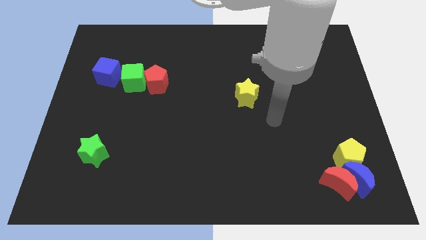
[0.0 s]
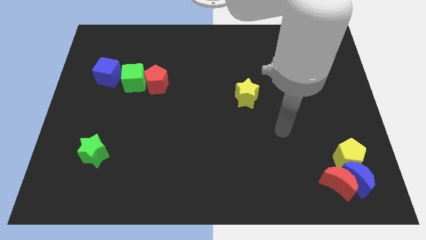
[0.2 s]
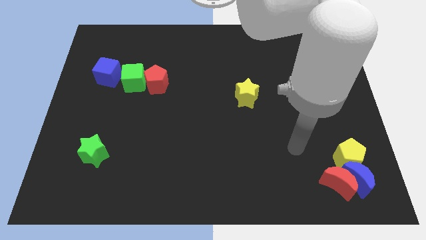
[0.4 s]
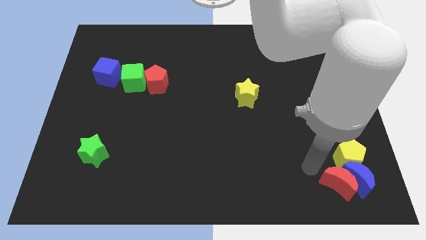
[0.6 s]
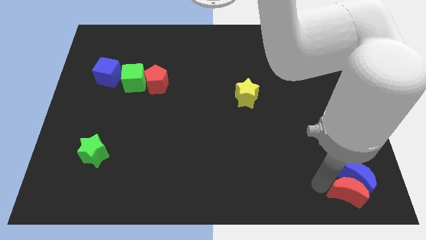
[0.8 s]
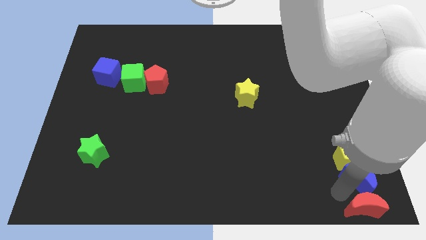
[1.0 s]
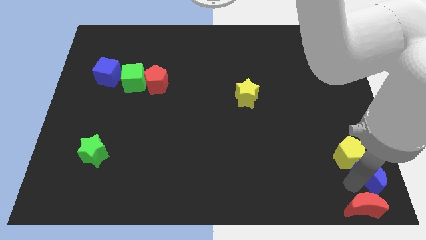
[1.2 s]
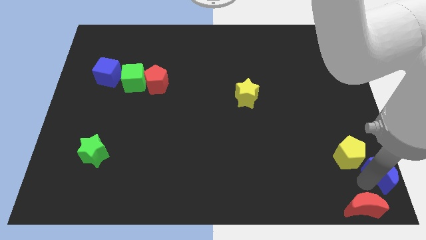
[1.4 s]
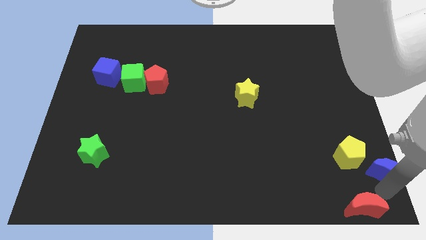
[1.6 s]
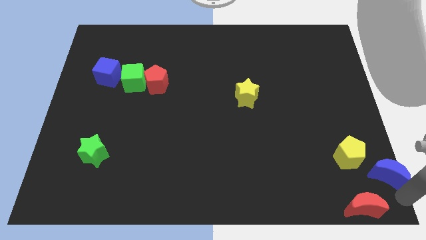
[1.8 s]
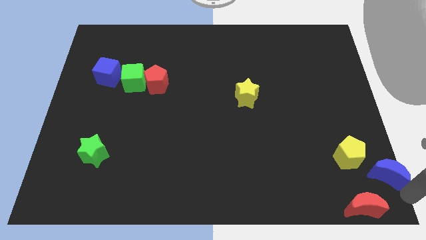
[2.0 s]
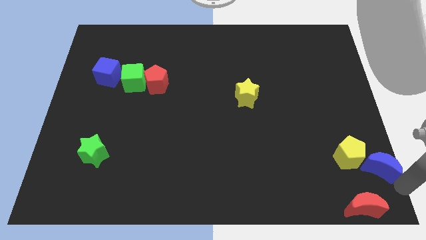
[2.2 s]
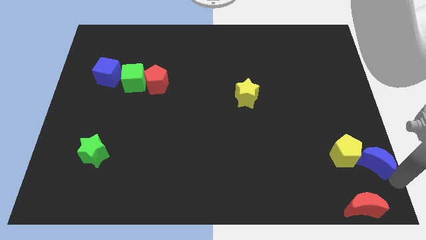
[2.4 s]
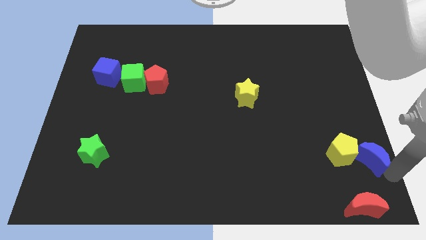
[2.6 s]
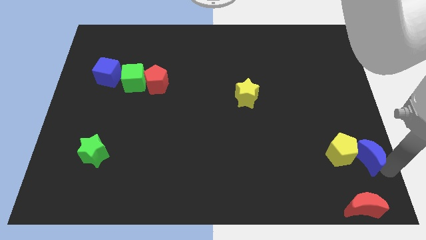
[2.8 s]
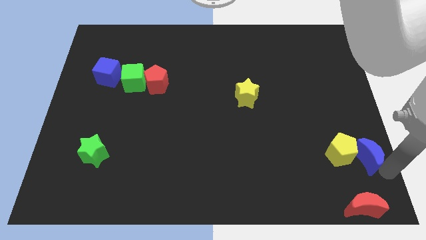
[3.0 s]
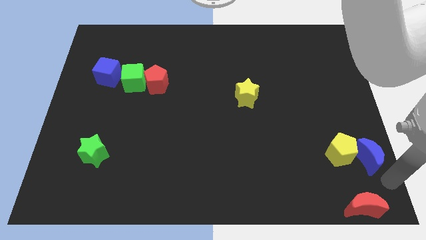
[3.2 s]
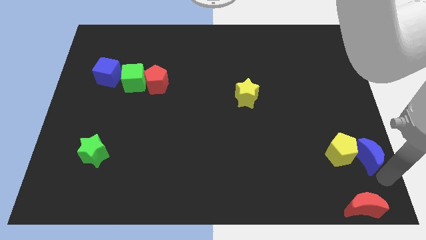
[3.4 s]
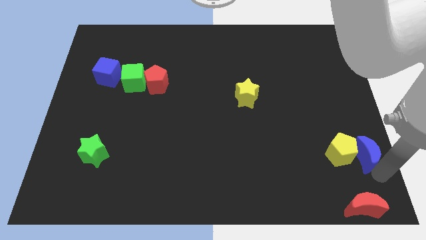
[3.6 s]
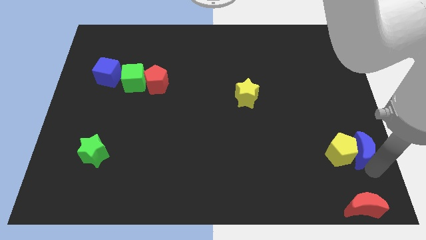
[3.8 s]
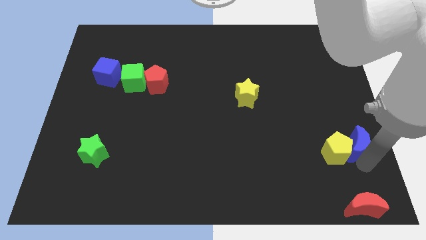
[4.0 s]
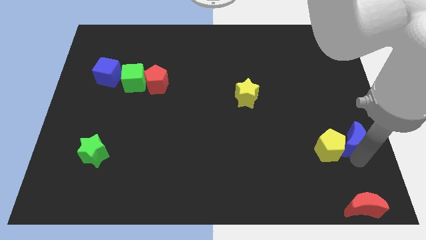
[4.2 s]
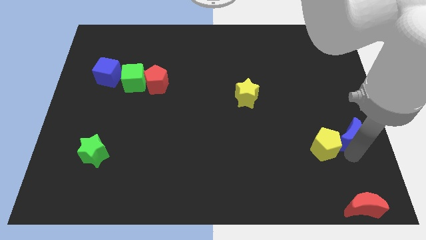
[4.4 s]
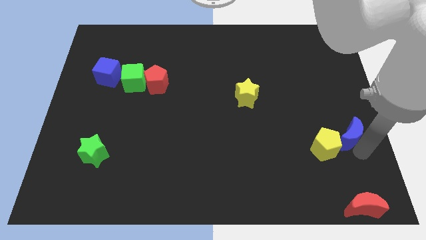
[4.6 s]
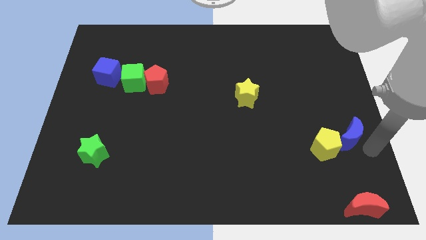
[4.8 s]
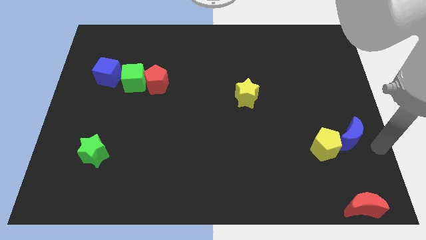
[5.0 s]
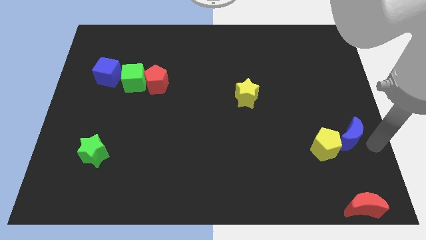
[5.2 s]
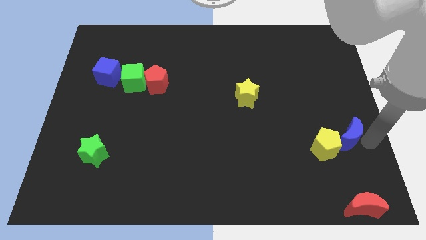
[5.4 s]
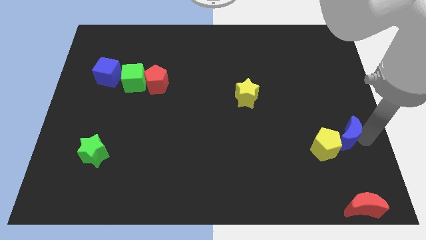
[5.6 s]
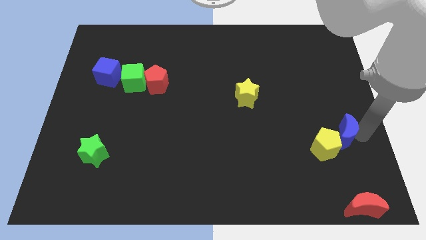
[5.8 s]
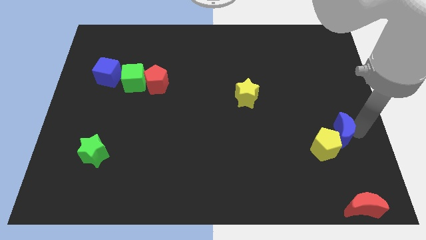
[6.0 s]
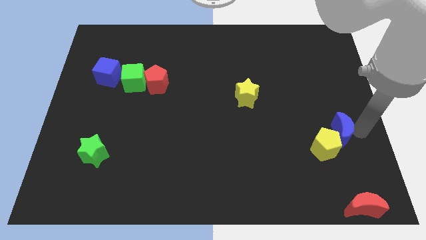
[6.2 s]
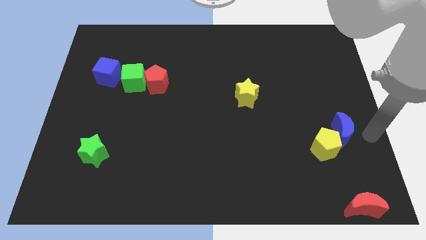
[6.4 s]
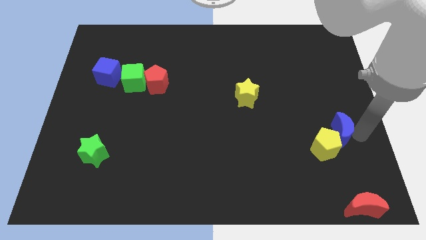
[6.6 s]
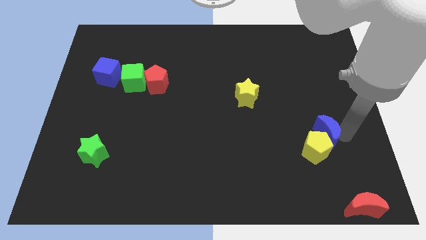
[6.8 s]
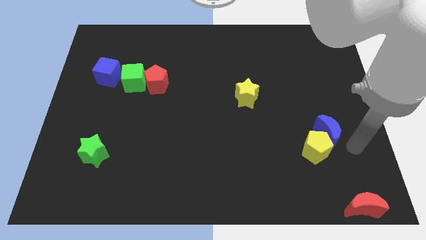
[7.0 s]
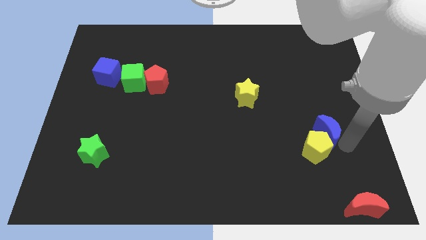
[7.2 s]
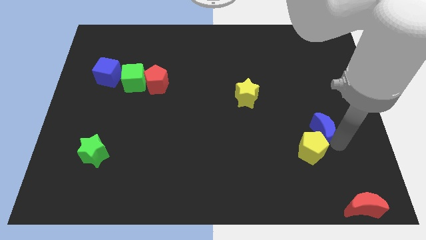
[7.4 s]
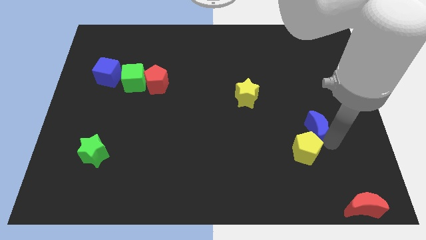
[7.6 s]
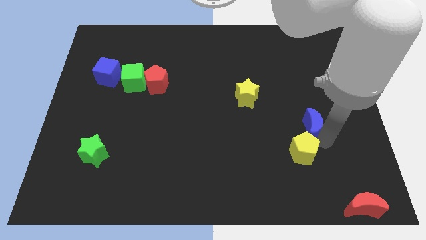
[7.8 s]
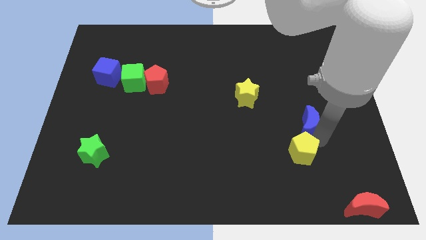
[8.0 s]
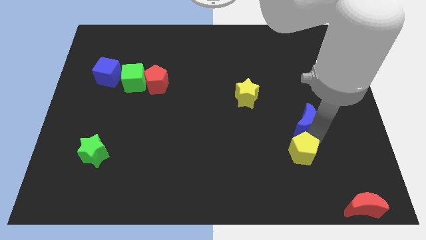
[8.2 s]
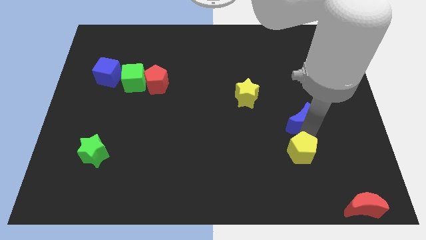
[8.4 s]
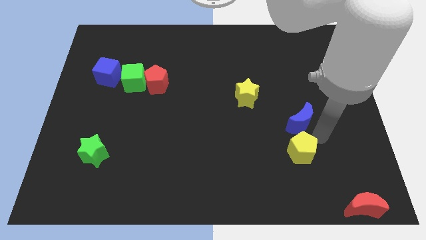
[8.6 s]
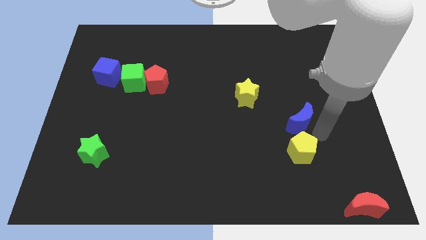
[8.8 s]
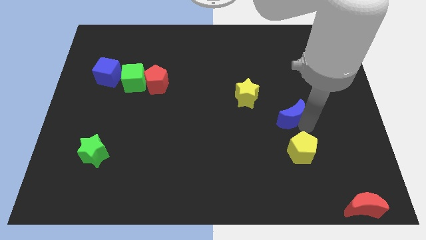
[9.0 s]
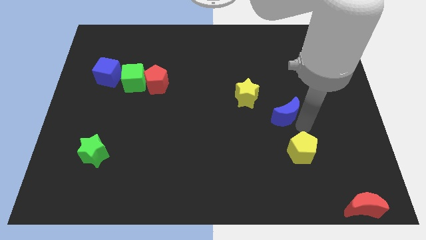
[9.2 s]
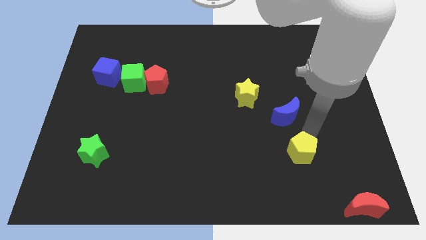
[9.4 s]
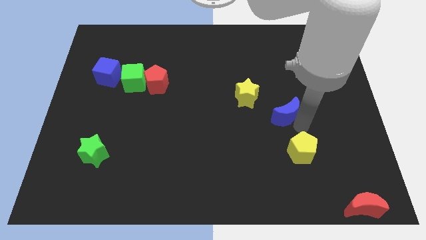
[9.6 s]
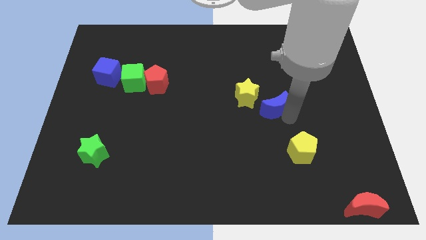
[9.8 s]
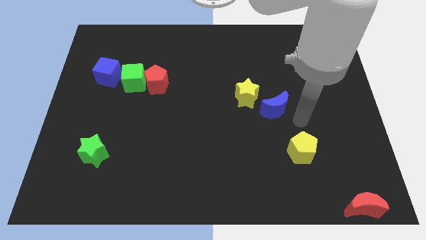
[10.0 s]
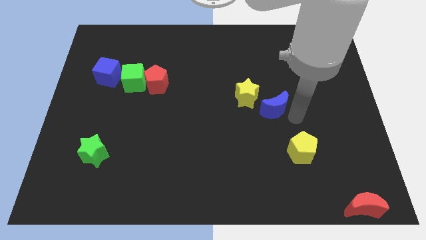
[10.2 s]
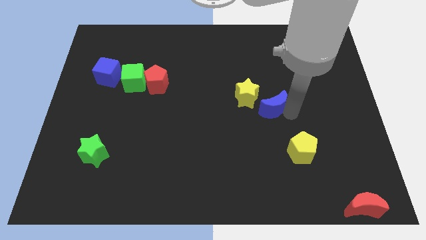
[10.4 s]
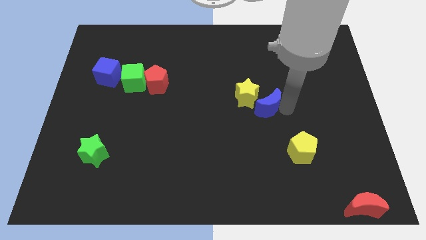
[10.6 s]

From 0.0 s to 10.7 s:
move the blue moon next to the yellow star
